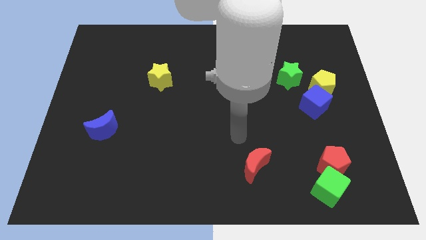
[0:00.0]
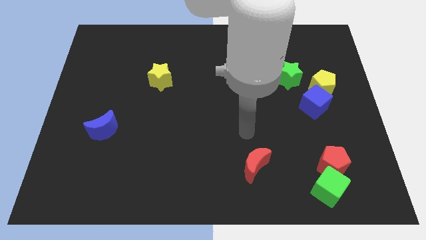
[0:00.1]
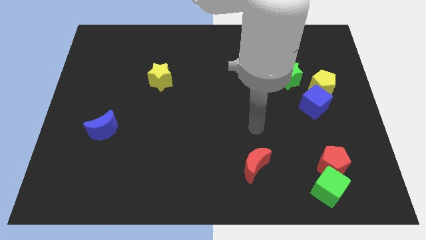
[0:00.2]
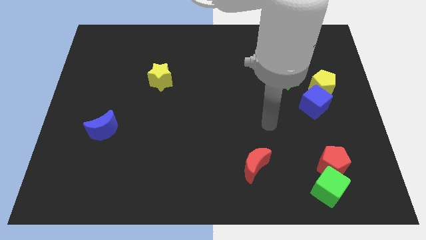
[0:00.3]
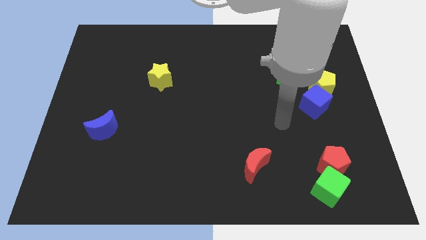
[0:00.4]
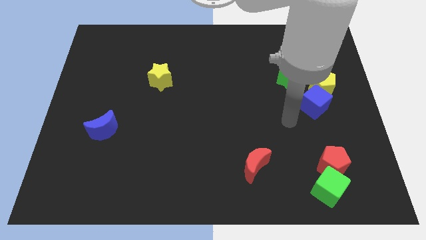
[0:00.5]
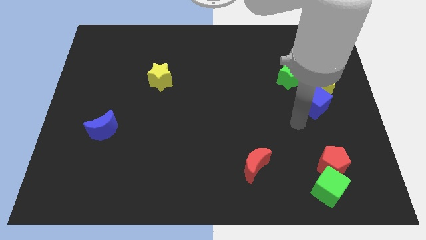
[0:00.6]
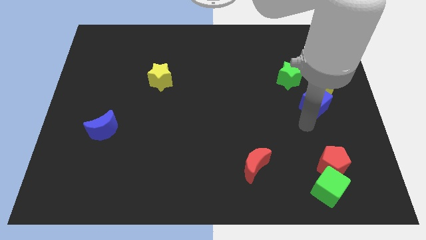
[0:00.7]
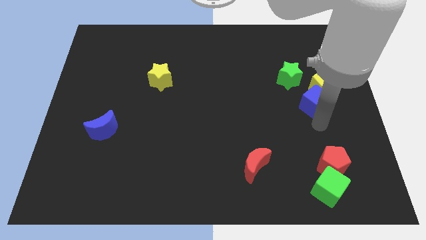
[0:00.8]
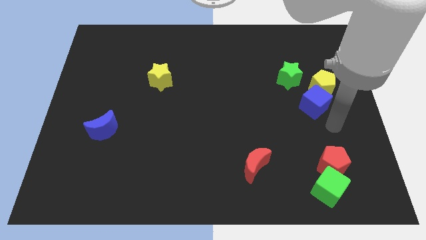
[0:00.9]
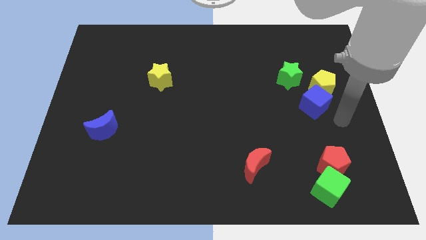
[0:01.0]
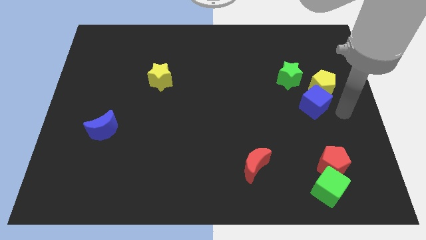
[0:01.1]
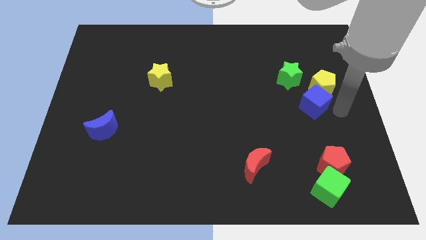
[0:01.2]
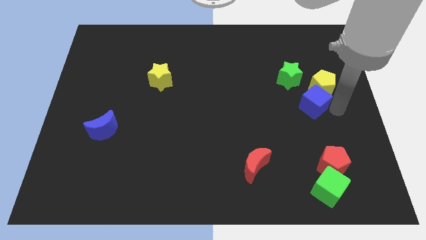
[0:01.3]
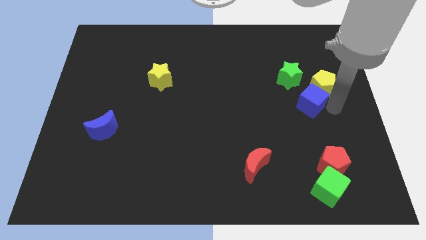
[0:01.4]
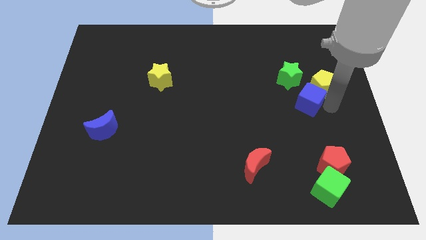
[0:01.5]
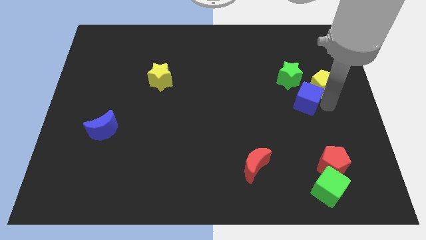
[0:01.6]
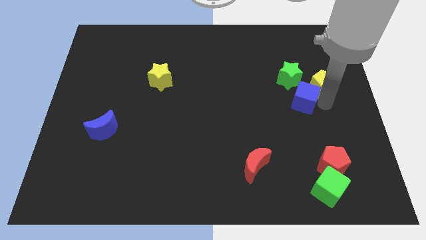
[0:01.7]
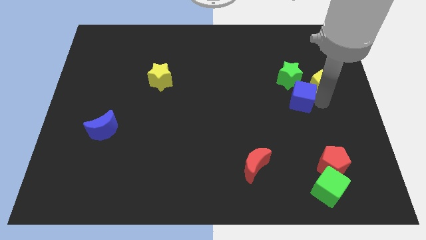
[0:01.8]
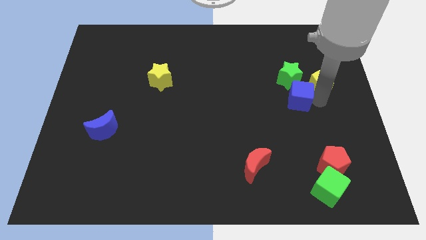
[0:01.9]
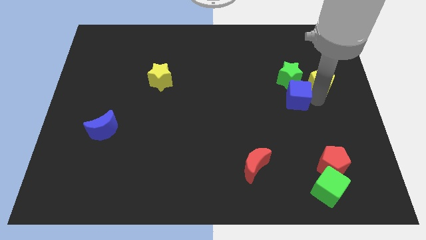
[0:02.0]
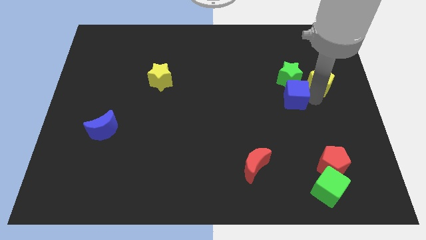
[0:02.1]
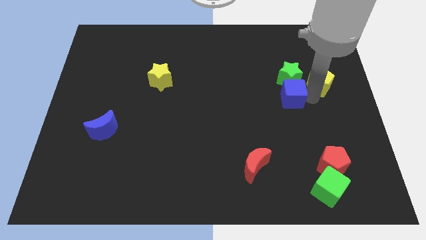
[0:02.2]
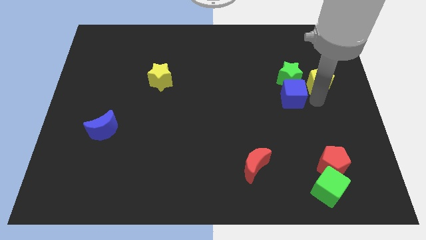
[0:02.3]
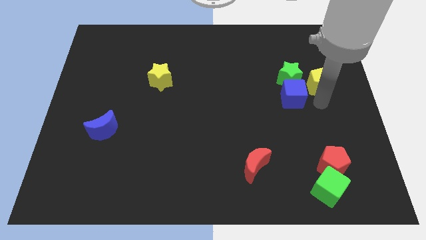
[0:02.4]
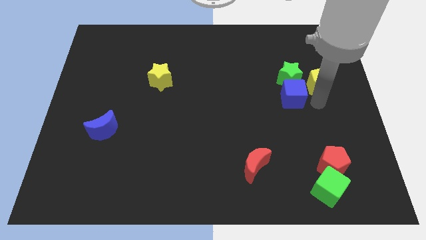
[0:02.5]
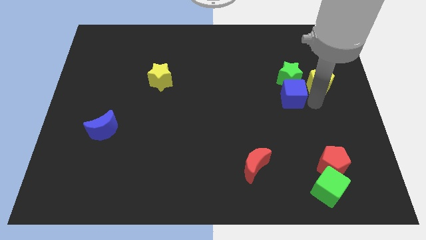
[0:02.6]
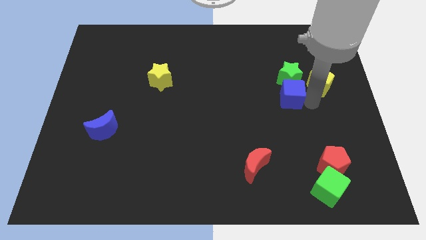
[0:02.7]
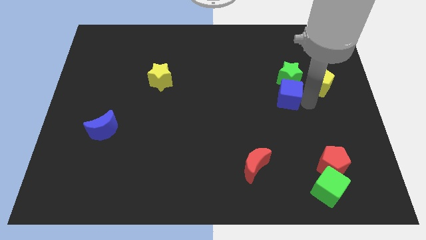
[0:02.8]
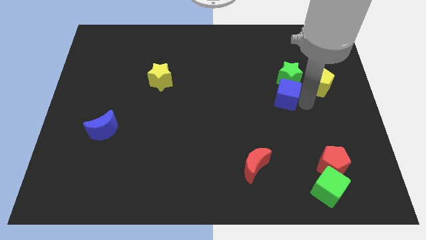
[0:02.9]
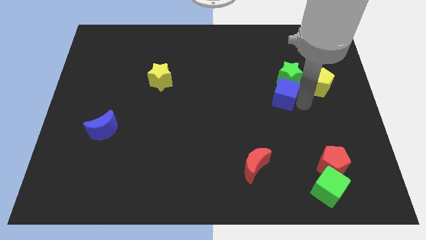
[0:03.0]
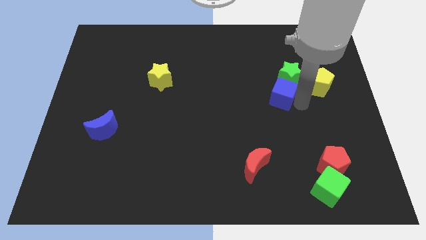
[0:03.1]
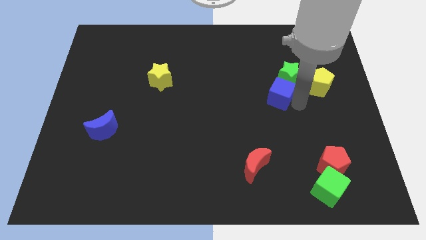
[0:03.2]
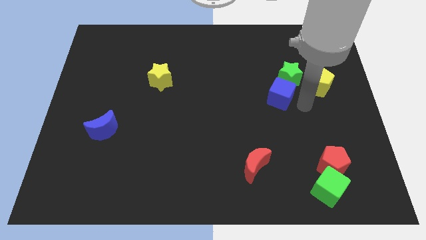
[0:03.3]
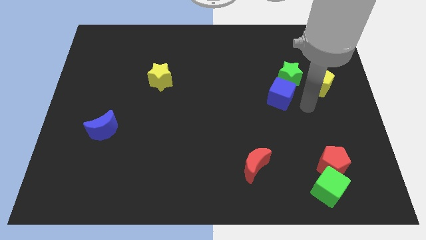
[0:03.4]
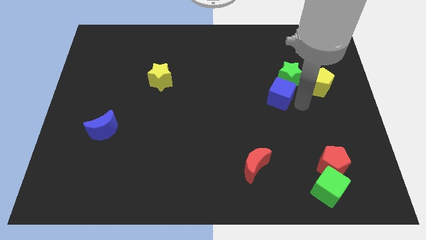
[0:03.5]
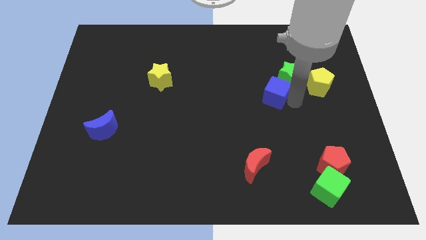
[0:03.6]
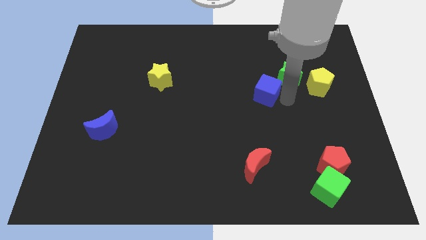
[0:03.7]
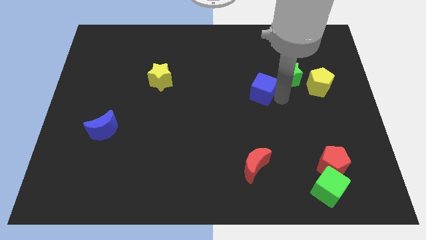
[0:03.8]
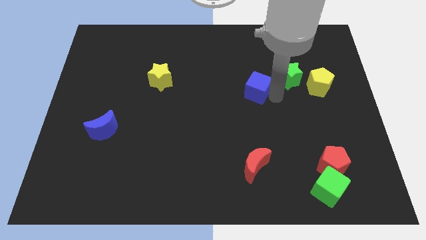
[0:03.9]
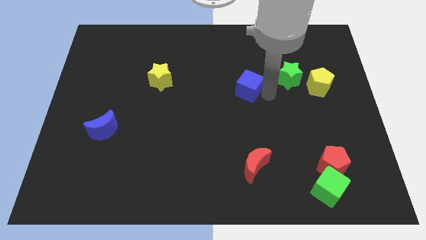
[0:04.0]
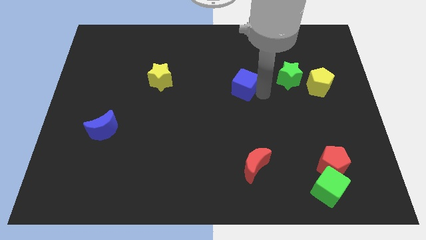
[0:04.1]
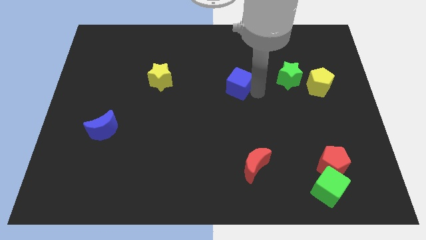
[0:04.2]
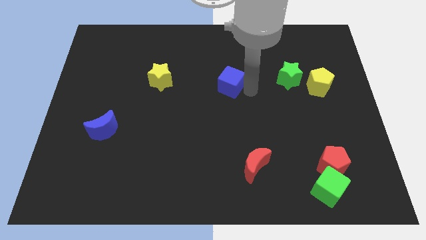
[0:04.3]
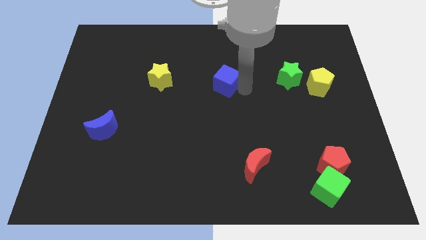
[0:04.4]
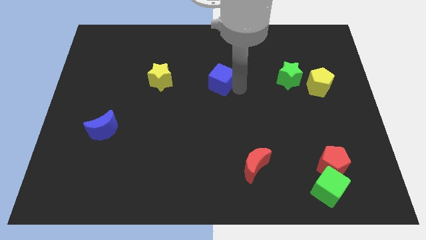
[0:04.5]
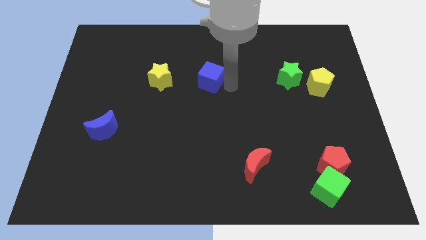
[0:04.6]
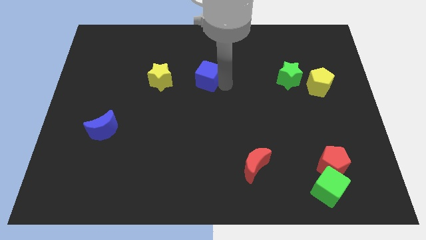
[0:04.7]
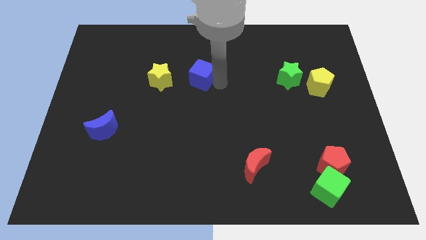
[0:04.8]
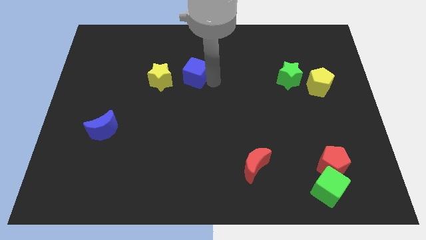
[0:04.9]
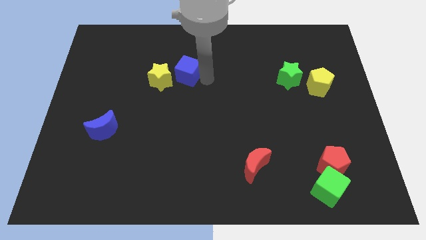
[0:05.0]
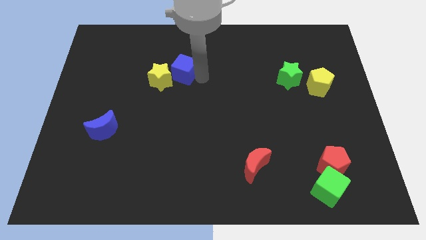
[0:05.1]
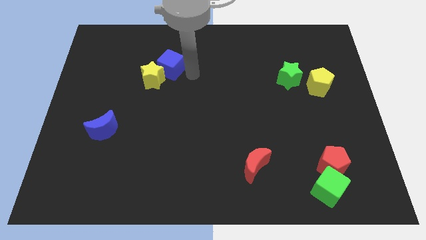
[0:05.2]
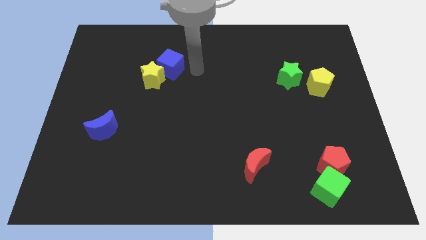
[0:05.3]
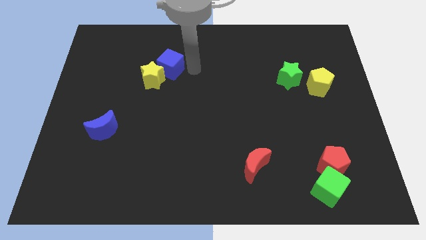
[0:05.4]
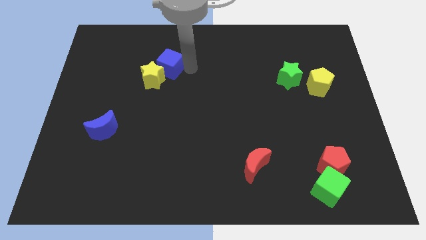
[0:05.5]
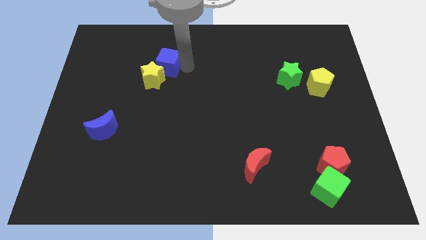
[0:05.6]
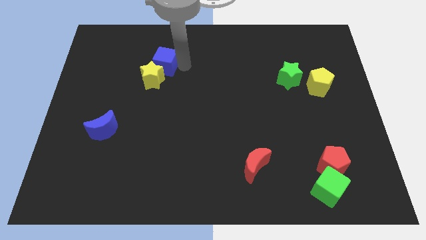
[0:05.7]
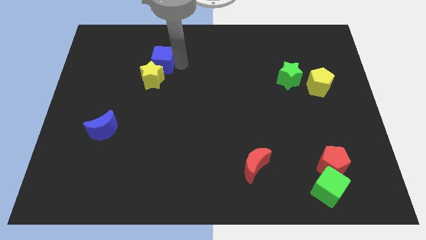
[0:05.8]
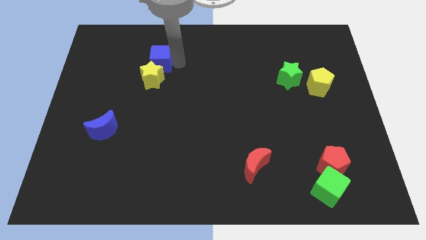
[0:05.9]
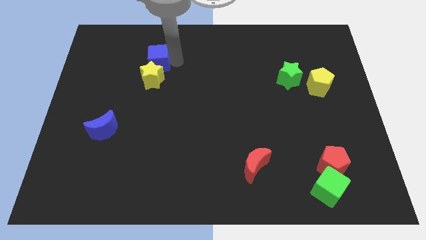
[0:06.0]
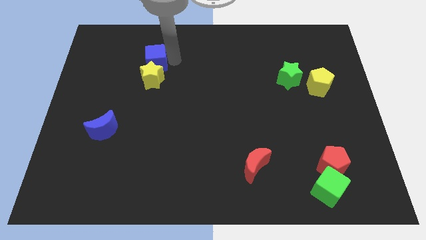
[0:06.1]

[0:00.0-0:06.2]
slide the blue cube to the top left side of the yellow star

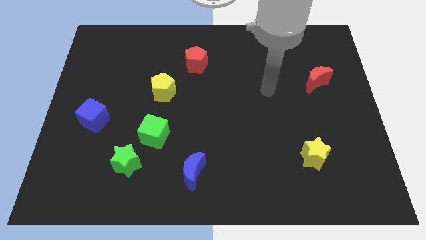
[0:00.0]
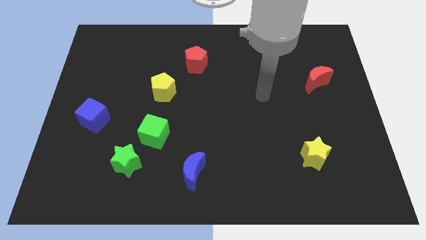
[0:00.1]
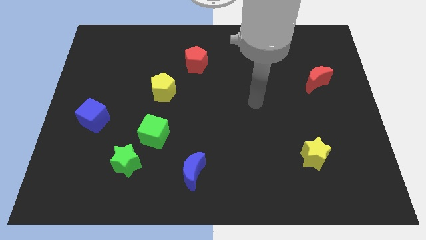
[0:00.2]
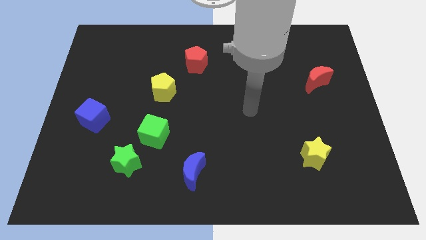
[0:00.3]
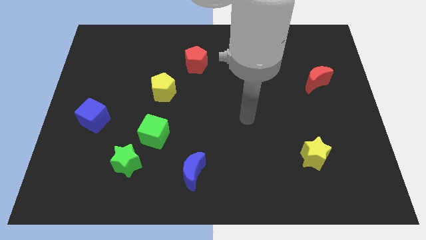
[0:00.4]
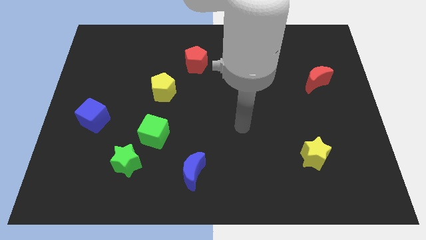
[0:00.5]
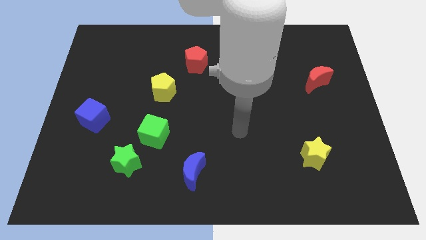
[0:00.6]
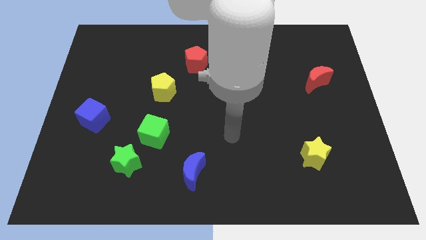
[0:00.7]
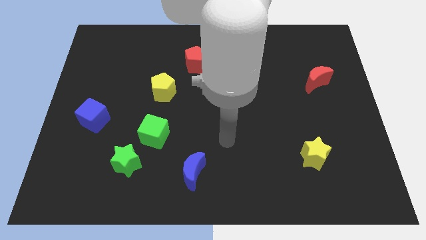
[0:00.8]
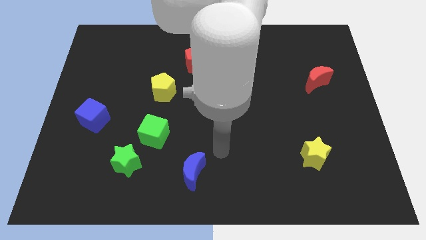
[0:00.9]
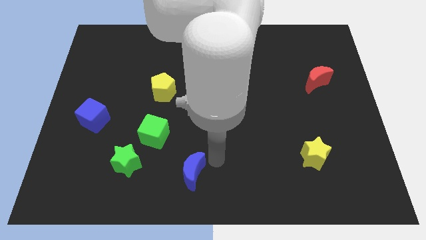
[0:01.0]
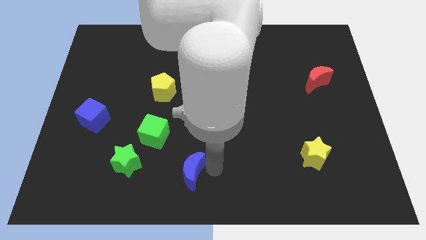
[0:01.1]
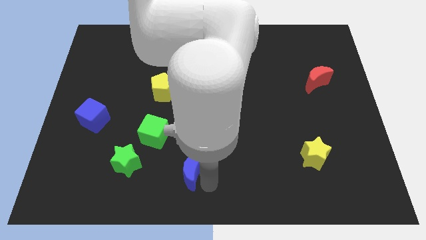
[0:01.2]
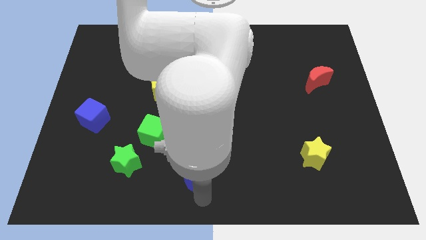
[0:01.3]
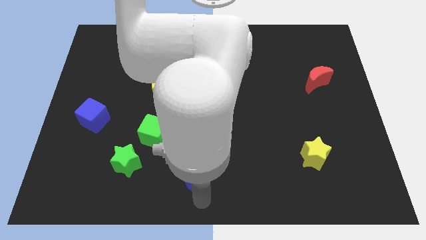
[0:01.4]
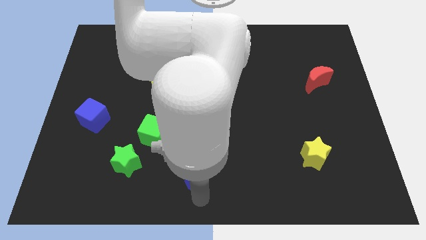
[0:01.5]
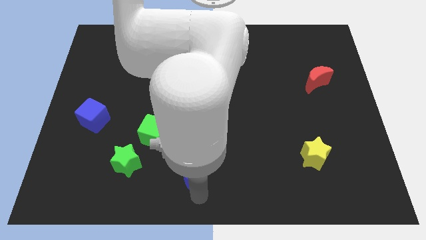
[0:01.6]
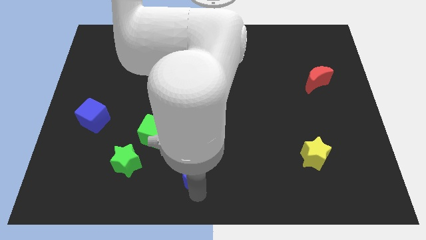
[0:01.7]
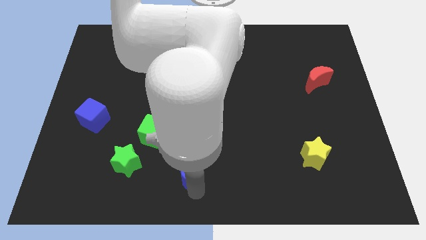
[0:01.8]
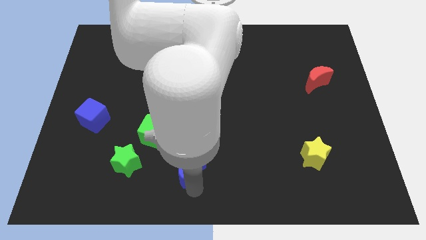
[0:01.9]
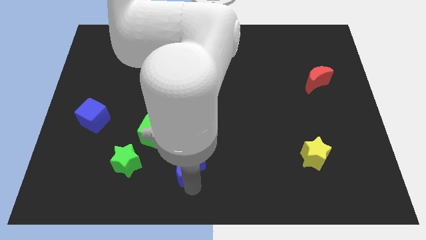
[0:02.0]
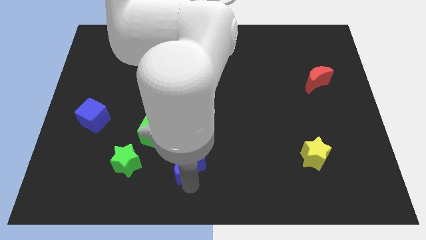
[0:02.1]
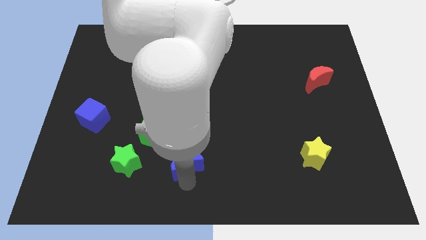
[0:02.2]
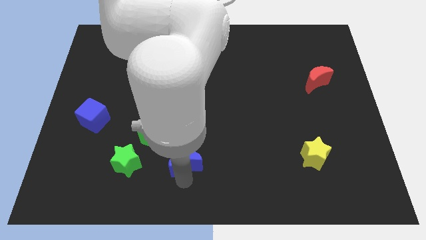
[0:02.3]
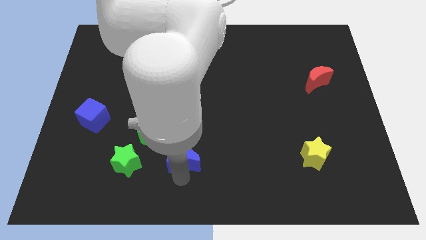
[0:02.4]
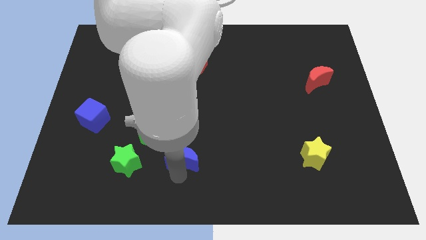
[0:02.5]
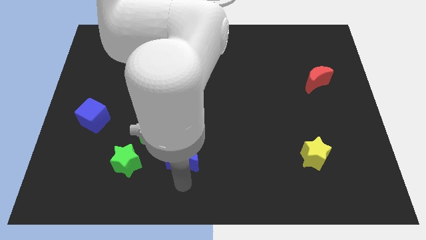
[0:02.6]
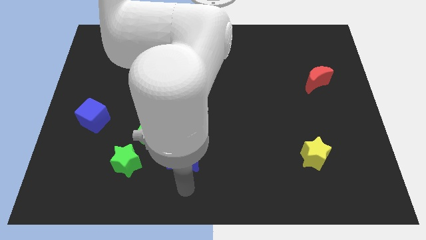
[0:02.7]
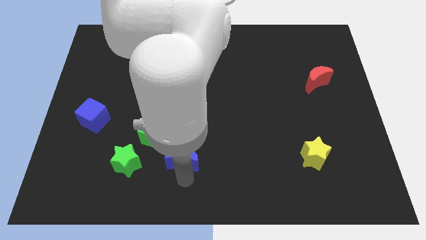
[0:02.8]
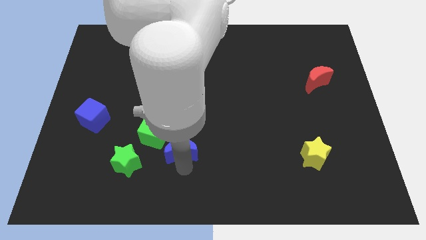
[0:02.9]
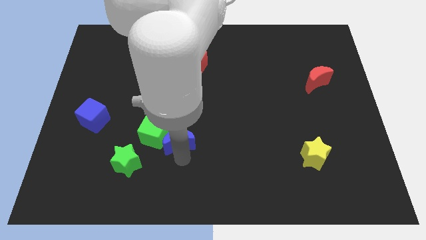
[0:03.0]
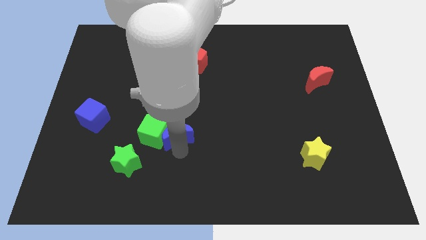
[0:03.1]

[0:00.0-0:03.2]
slide the blue moon to the top right of the green cube
